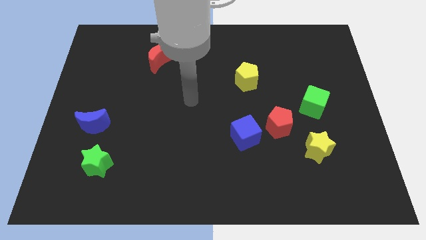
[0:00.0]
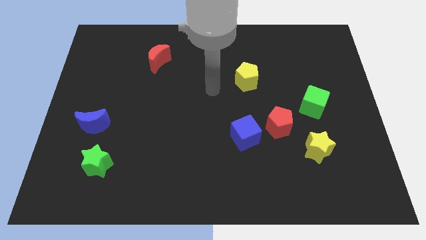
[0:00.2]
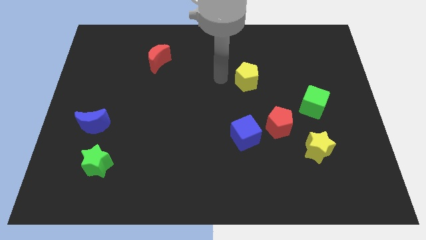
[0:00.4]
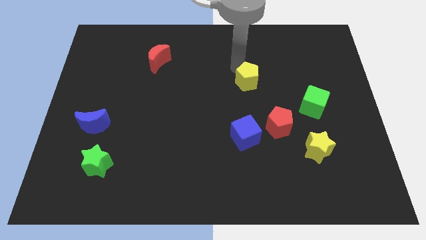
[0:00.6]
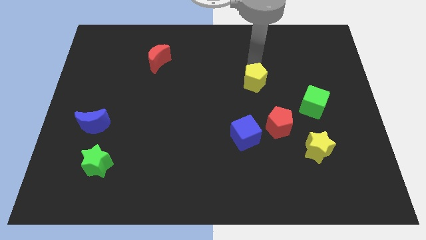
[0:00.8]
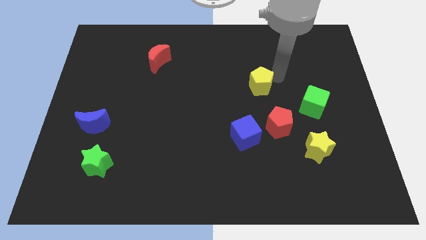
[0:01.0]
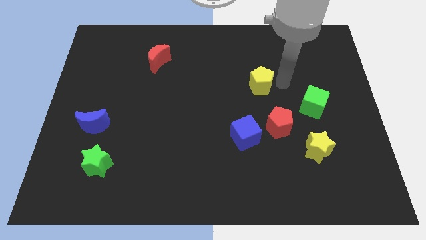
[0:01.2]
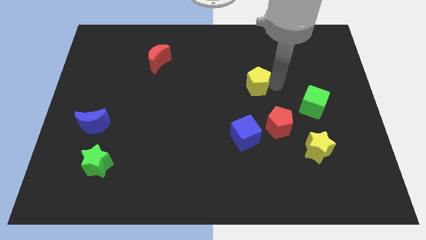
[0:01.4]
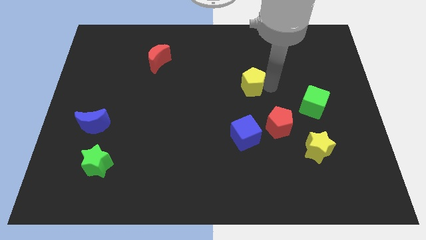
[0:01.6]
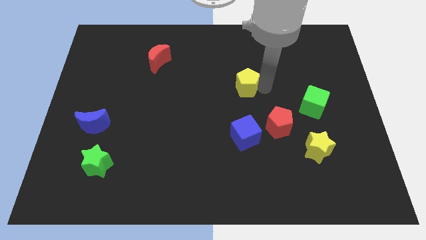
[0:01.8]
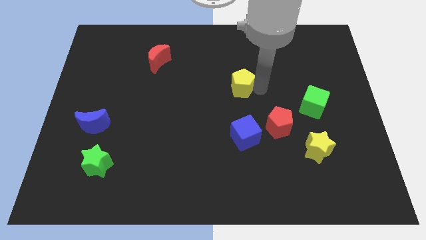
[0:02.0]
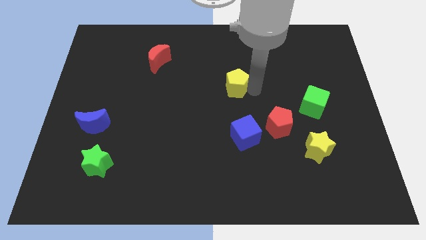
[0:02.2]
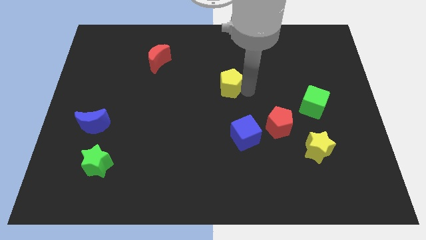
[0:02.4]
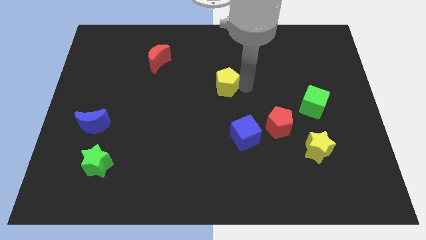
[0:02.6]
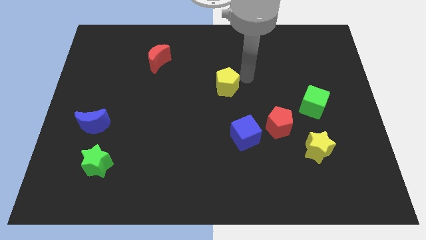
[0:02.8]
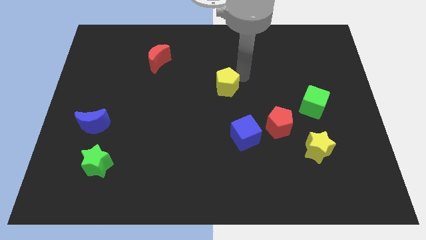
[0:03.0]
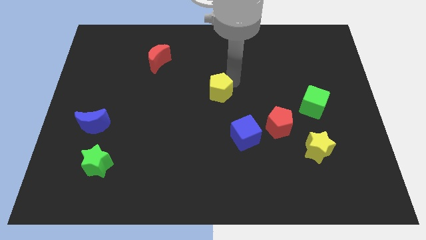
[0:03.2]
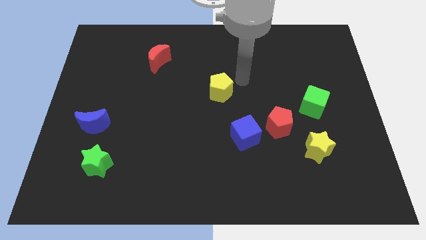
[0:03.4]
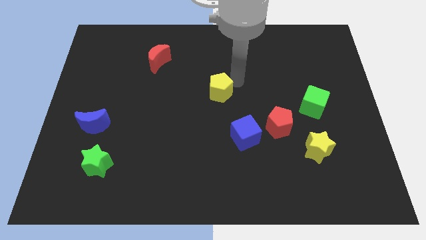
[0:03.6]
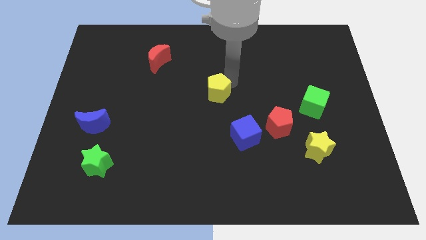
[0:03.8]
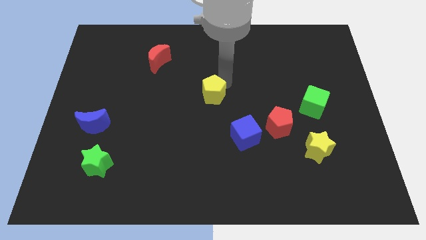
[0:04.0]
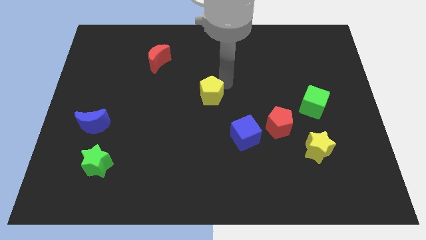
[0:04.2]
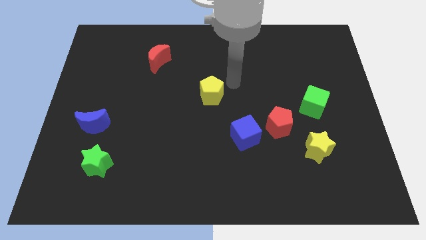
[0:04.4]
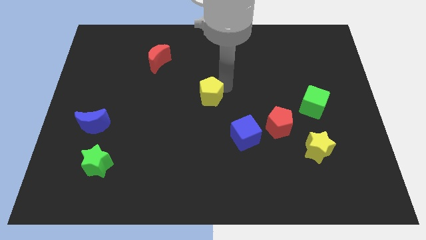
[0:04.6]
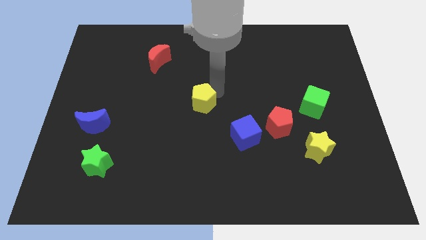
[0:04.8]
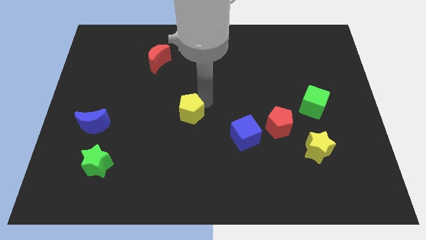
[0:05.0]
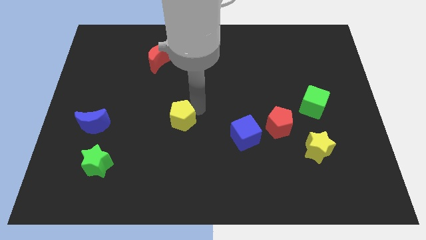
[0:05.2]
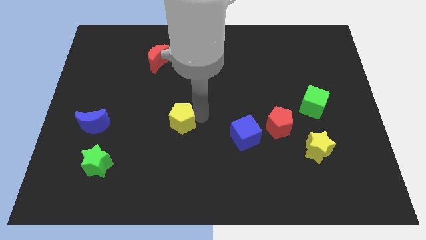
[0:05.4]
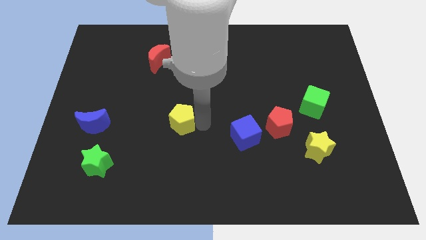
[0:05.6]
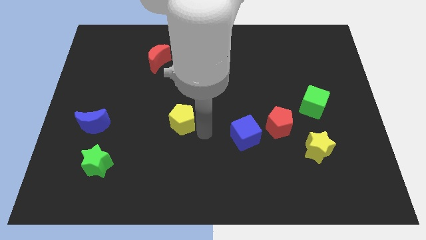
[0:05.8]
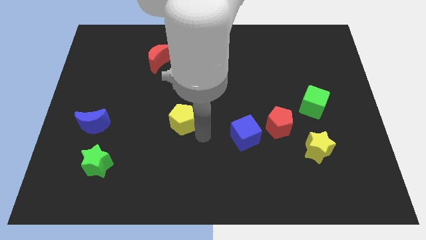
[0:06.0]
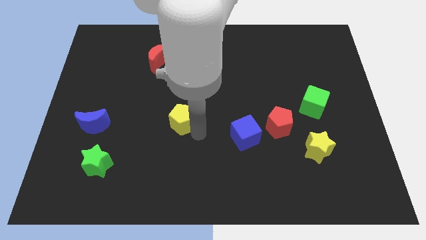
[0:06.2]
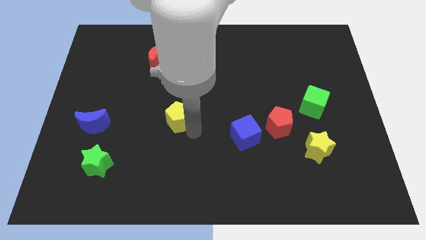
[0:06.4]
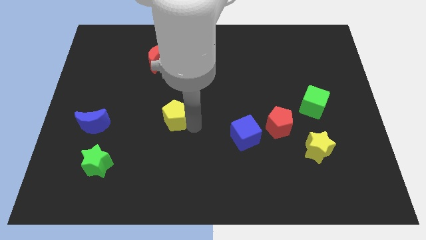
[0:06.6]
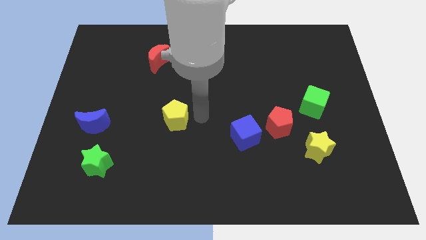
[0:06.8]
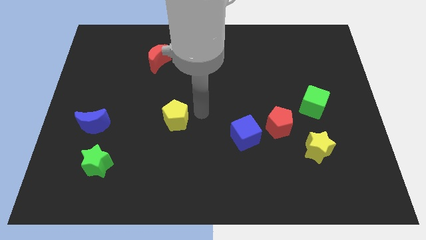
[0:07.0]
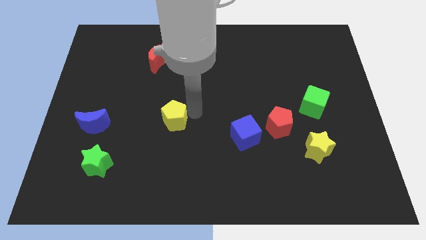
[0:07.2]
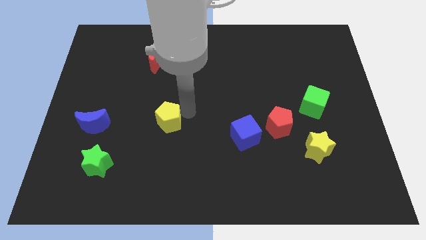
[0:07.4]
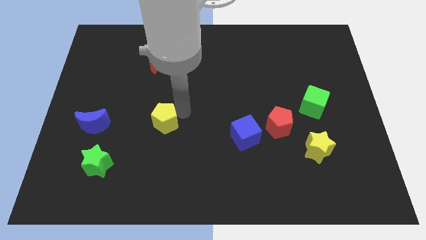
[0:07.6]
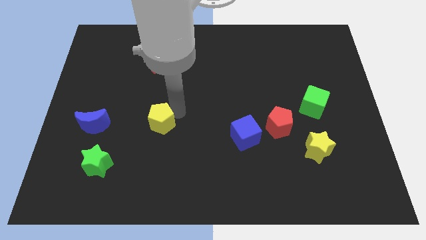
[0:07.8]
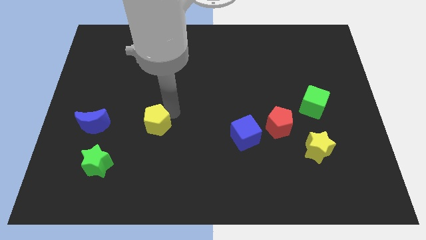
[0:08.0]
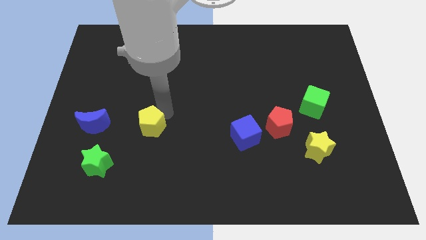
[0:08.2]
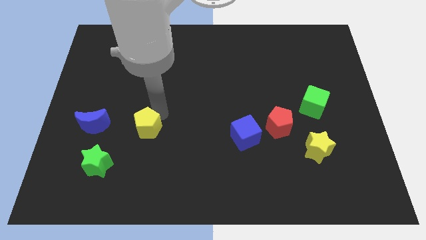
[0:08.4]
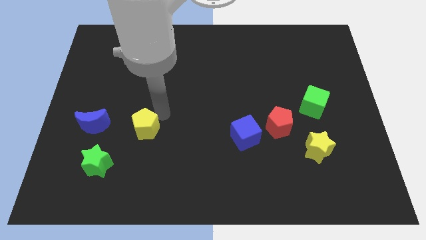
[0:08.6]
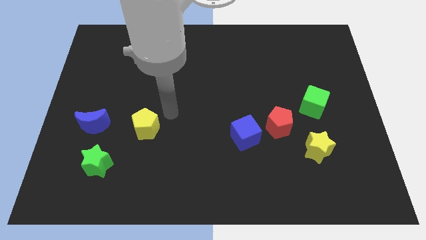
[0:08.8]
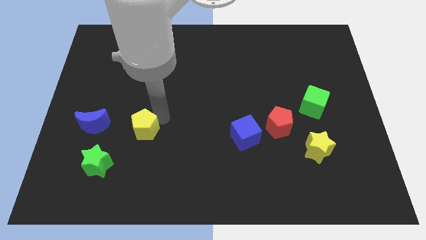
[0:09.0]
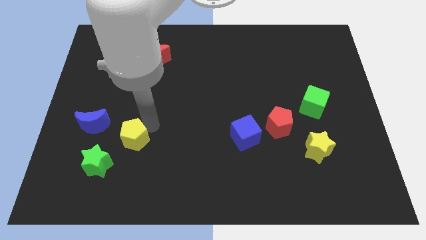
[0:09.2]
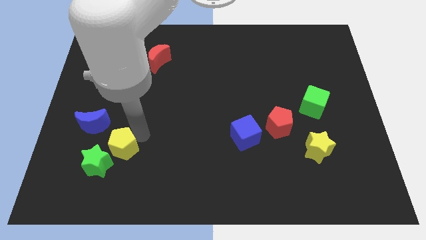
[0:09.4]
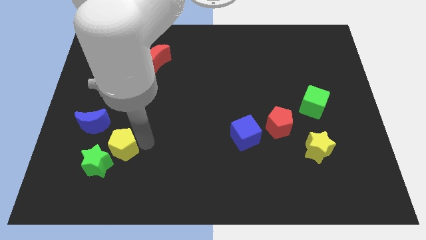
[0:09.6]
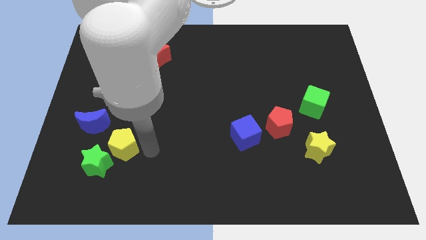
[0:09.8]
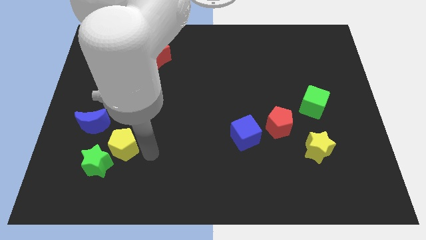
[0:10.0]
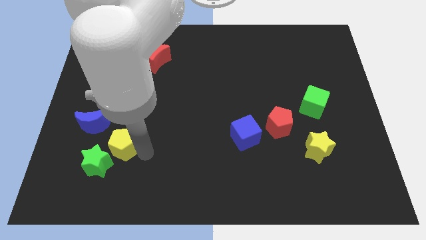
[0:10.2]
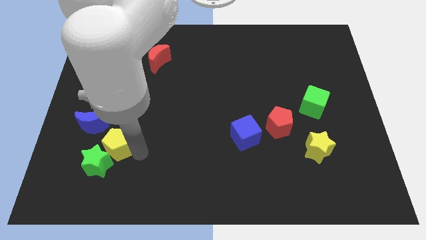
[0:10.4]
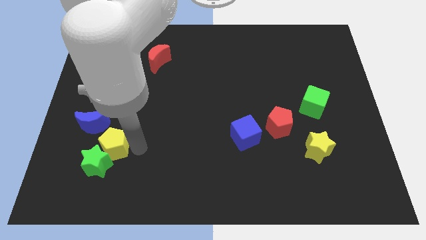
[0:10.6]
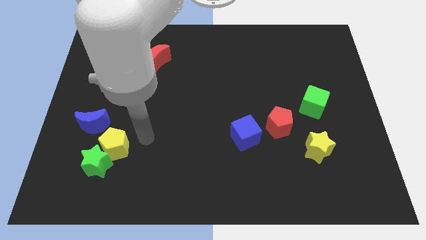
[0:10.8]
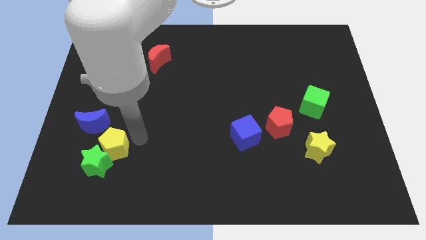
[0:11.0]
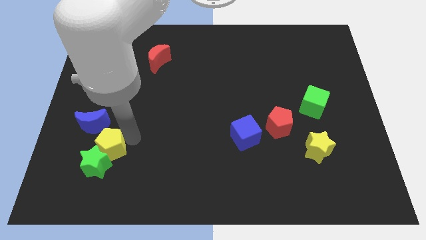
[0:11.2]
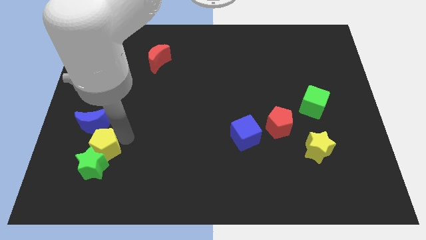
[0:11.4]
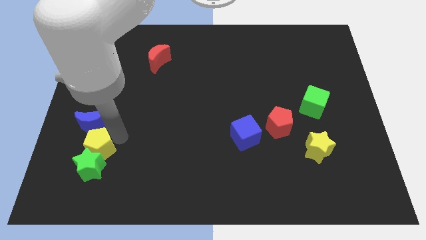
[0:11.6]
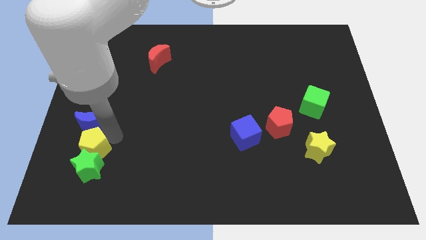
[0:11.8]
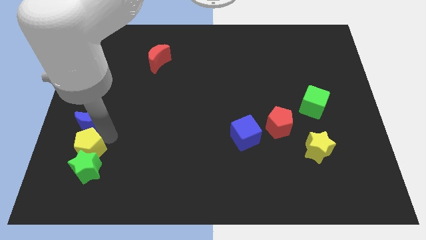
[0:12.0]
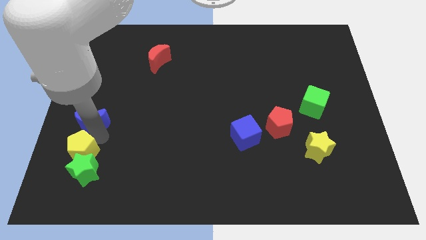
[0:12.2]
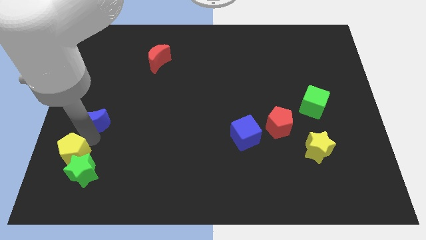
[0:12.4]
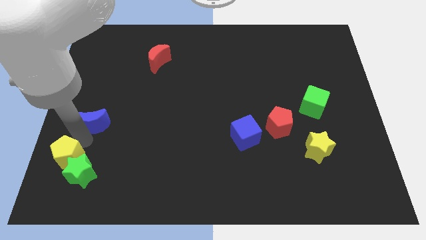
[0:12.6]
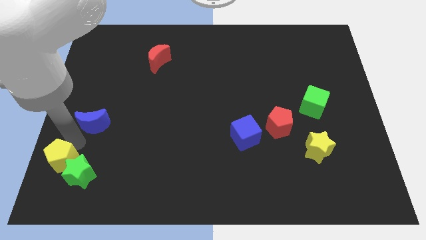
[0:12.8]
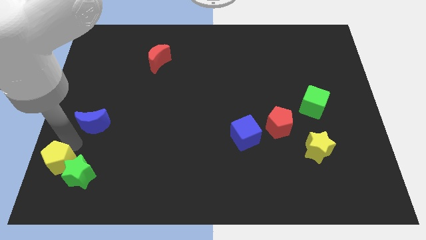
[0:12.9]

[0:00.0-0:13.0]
slide the yellow pentagon to the bottom left corner

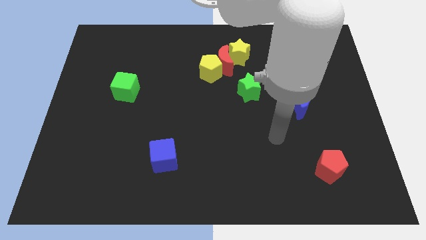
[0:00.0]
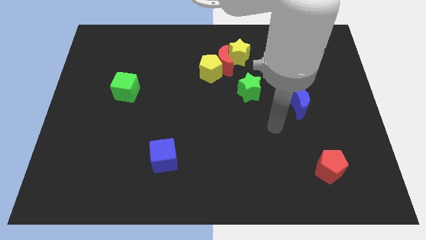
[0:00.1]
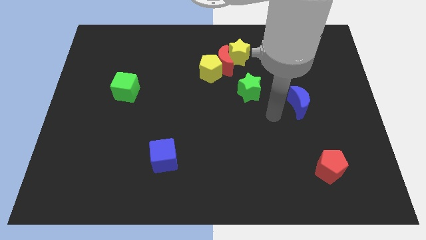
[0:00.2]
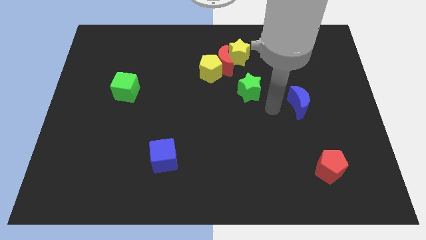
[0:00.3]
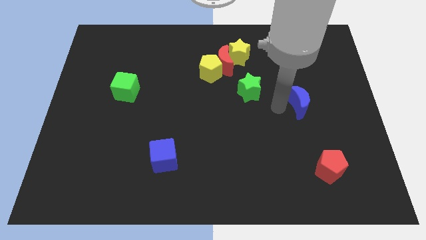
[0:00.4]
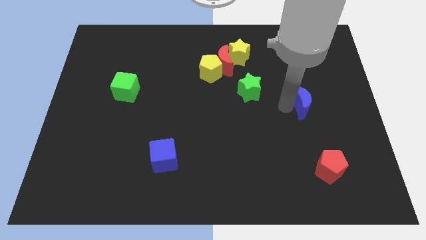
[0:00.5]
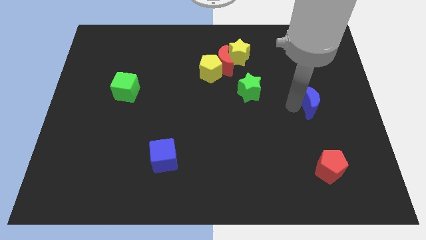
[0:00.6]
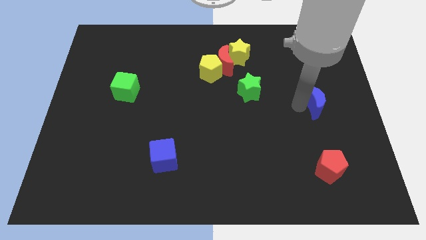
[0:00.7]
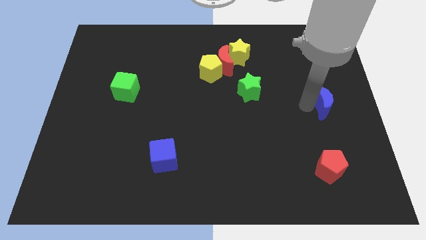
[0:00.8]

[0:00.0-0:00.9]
push the blue moon to the right side

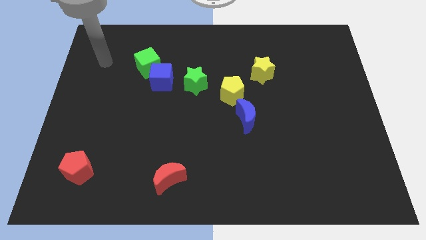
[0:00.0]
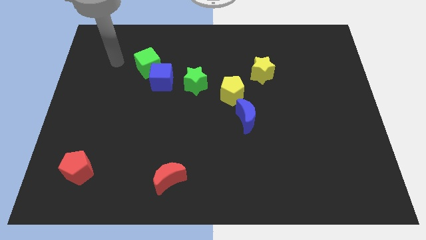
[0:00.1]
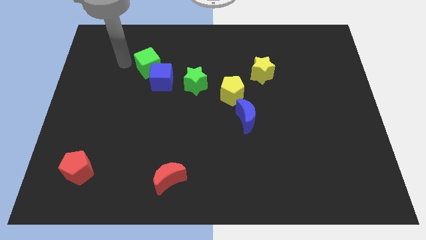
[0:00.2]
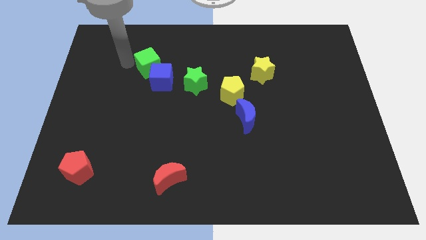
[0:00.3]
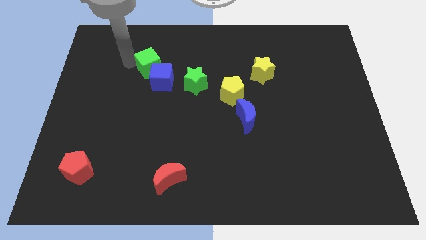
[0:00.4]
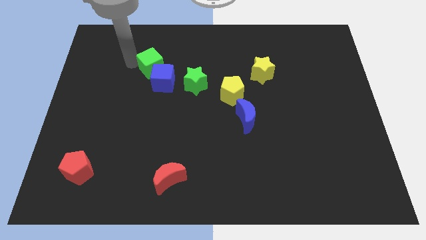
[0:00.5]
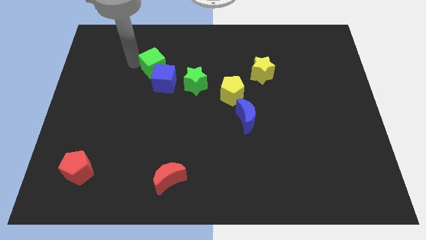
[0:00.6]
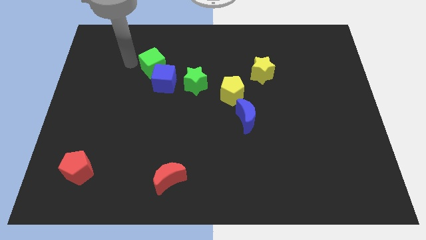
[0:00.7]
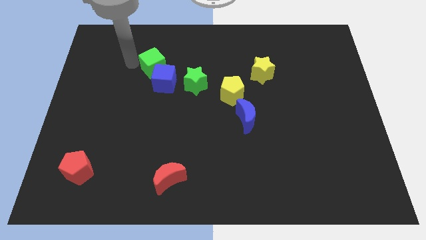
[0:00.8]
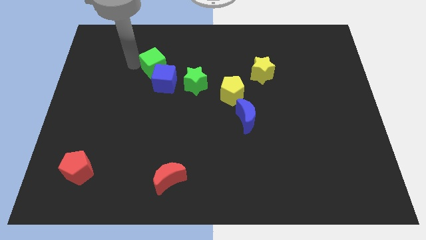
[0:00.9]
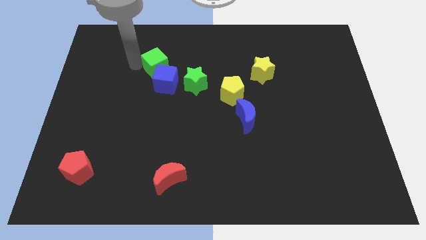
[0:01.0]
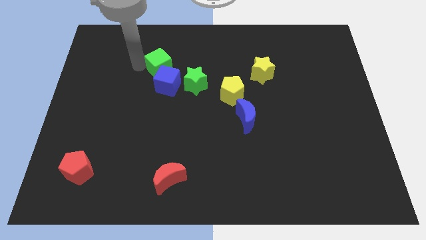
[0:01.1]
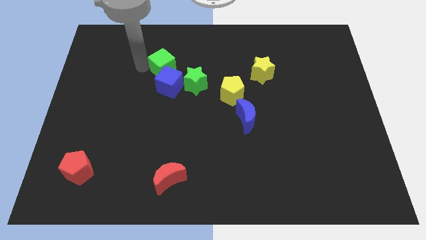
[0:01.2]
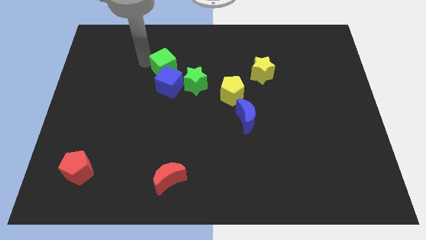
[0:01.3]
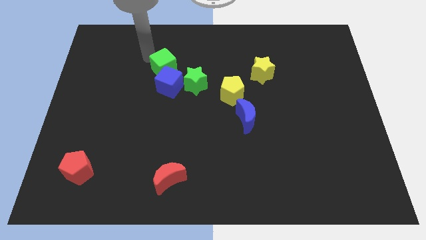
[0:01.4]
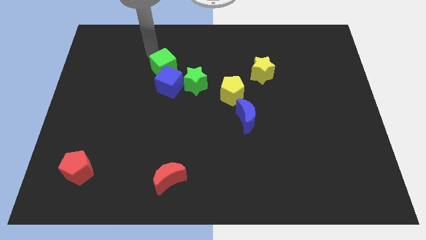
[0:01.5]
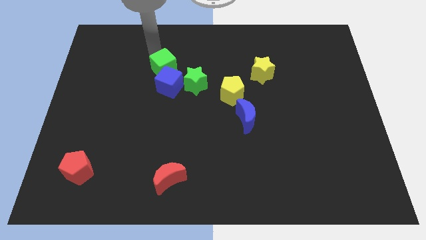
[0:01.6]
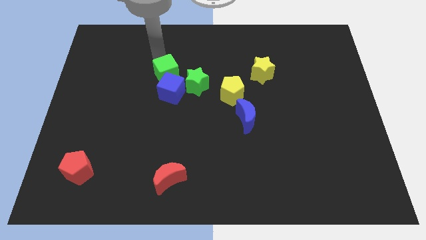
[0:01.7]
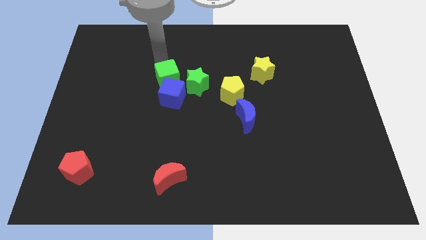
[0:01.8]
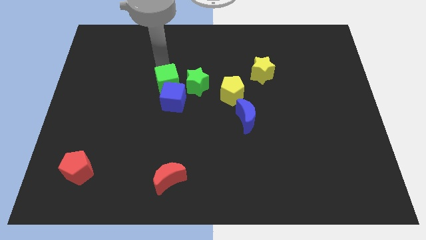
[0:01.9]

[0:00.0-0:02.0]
slide the green cube to the middle
